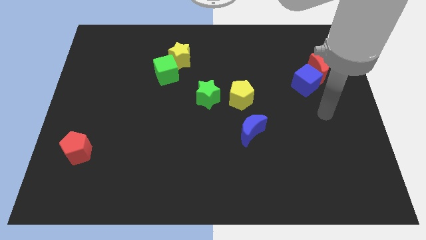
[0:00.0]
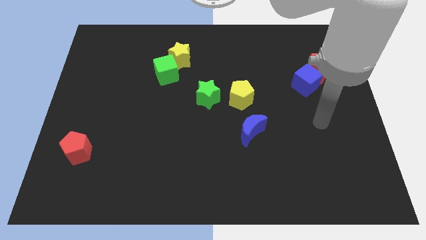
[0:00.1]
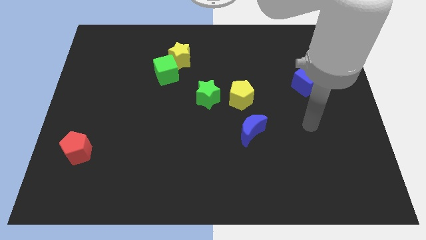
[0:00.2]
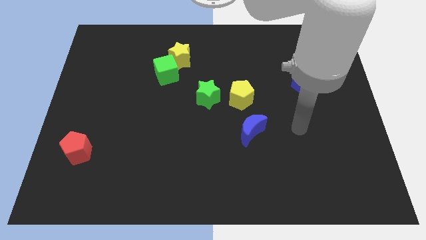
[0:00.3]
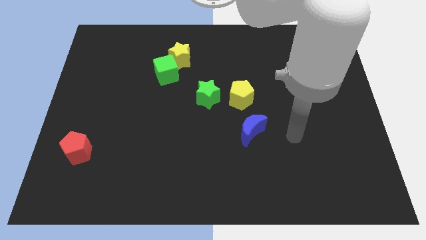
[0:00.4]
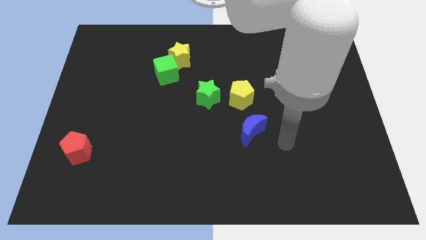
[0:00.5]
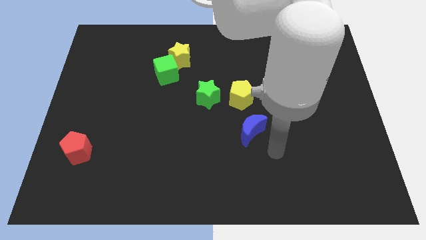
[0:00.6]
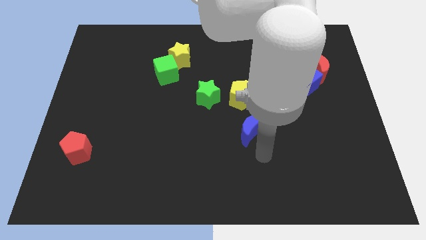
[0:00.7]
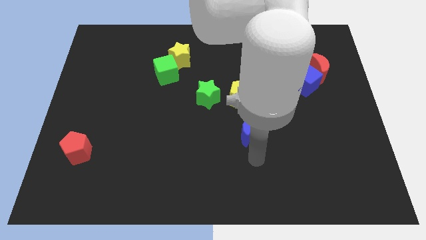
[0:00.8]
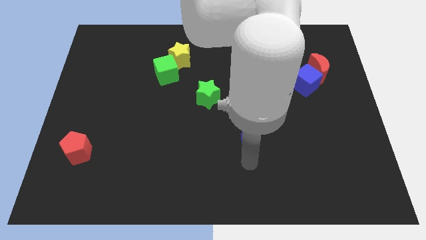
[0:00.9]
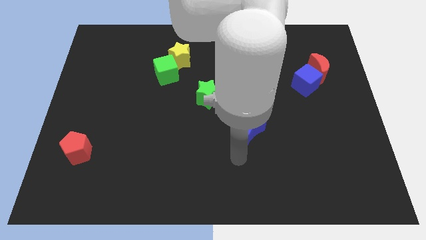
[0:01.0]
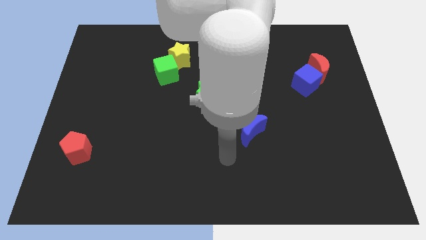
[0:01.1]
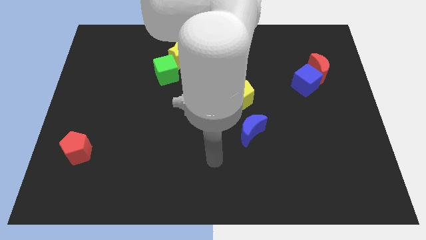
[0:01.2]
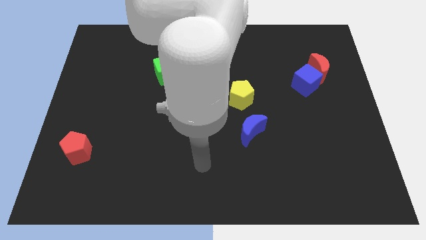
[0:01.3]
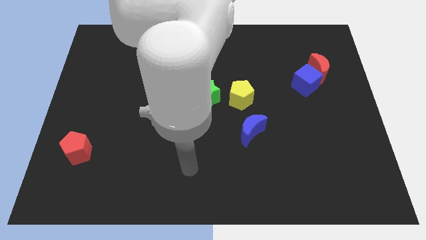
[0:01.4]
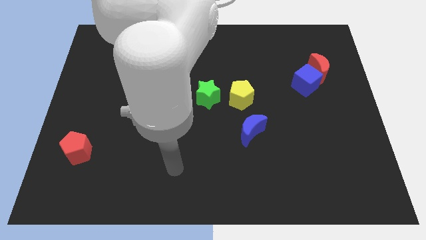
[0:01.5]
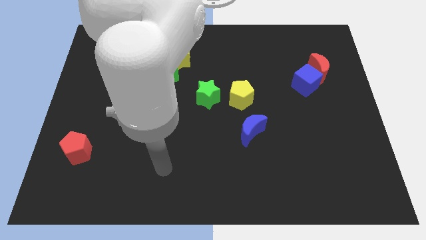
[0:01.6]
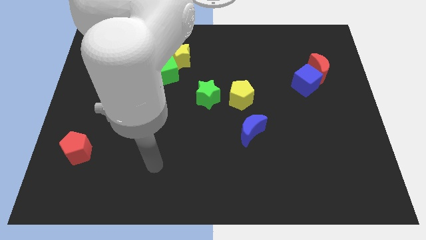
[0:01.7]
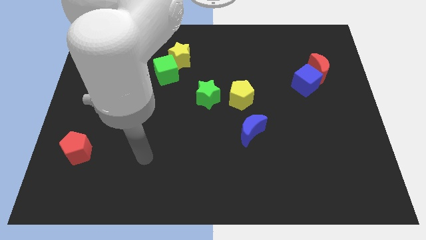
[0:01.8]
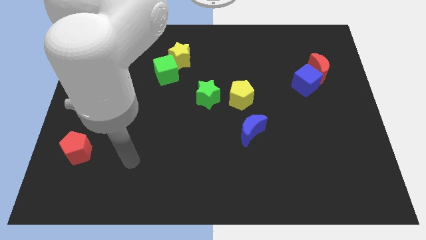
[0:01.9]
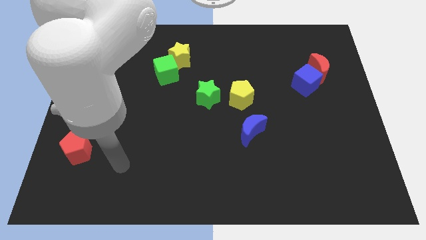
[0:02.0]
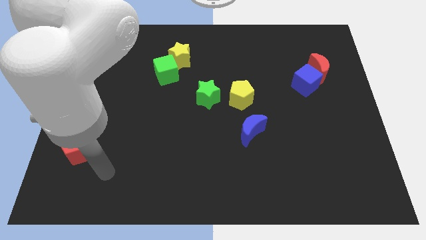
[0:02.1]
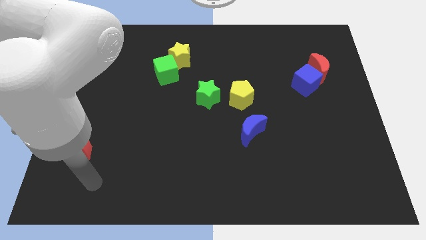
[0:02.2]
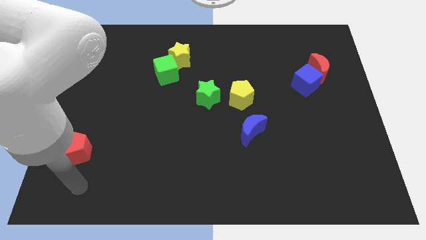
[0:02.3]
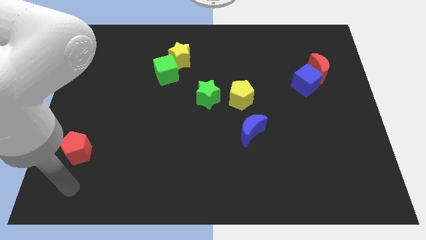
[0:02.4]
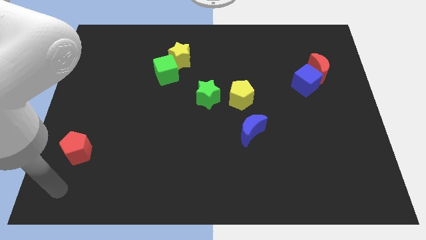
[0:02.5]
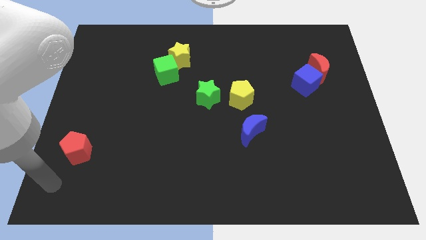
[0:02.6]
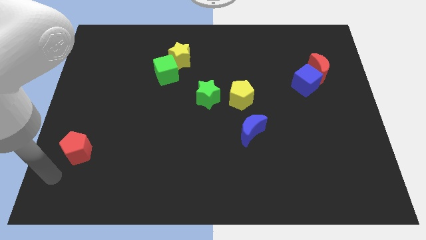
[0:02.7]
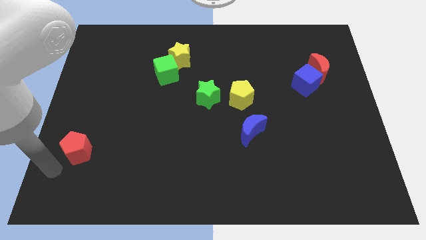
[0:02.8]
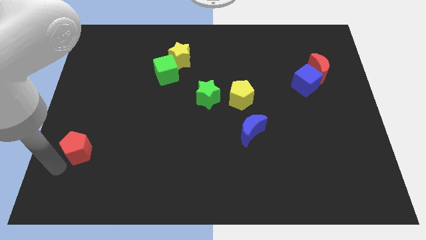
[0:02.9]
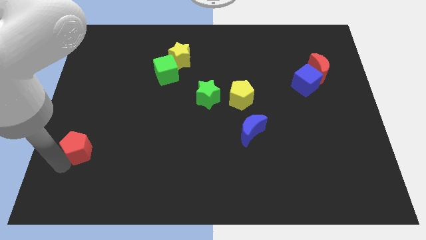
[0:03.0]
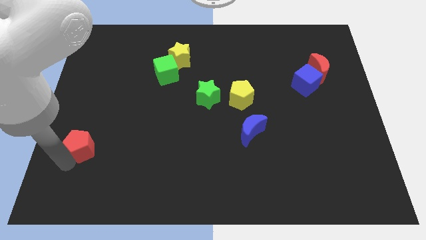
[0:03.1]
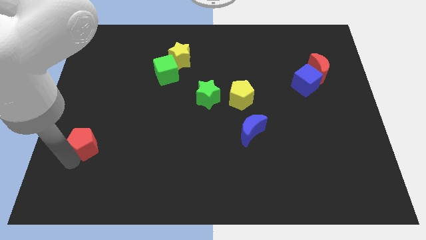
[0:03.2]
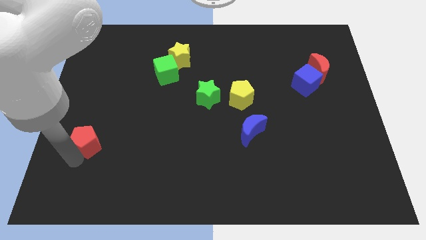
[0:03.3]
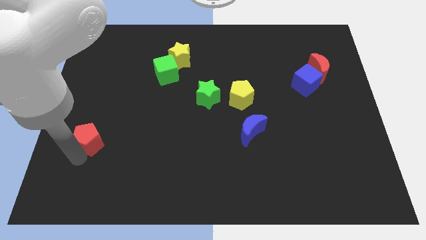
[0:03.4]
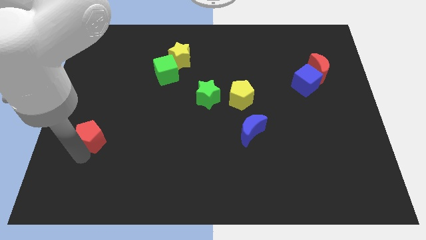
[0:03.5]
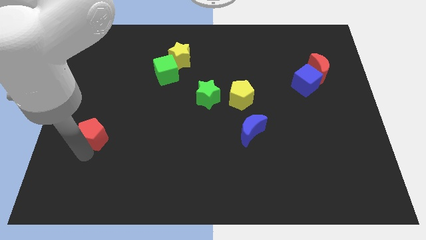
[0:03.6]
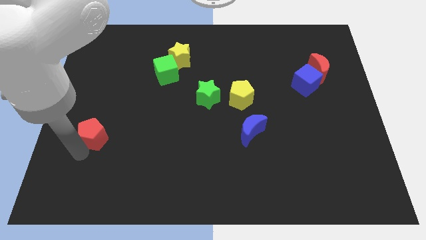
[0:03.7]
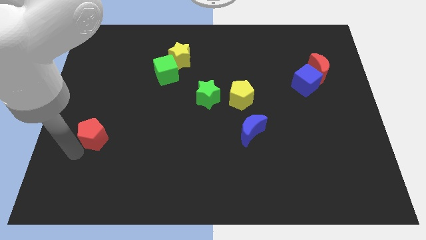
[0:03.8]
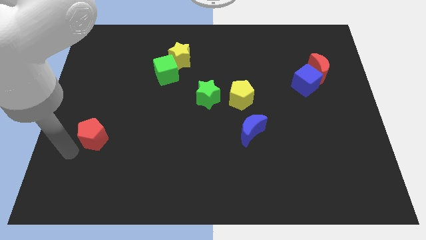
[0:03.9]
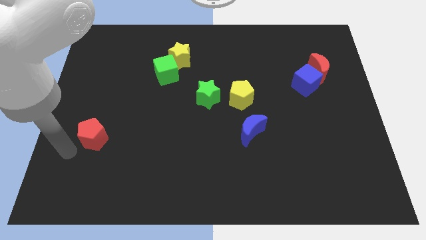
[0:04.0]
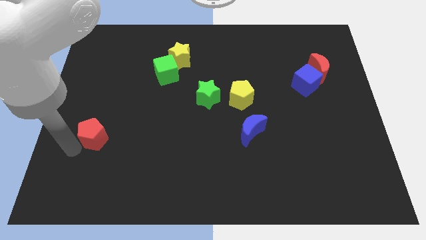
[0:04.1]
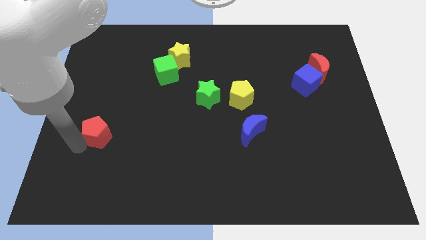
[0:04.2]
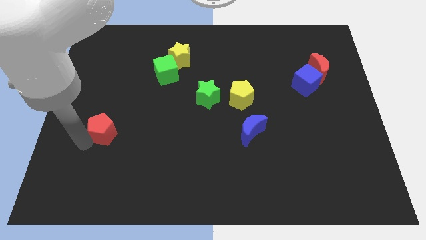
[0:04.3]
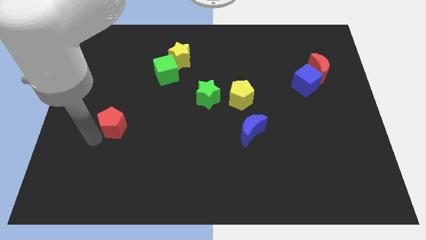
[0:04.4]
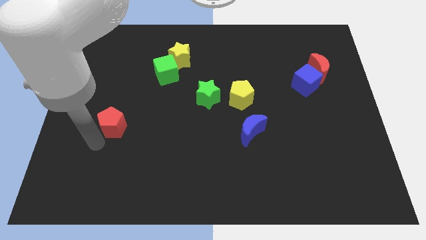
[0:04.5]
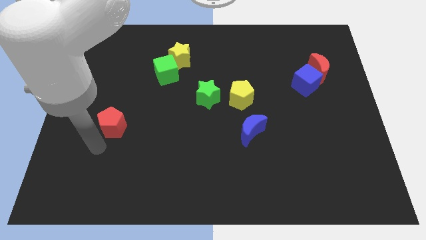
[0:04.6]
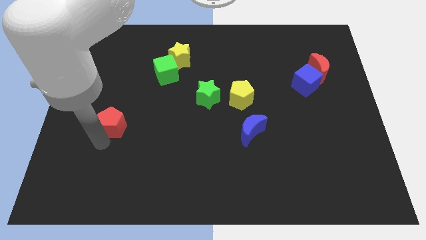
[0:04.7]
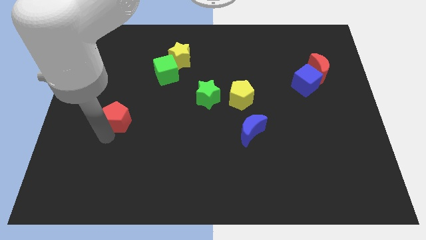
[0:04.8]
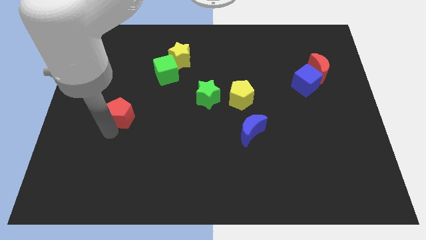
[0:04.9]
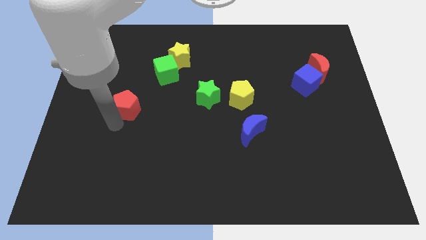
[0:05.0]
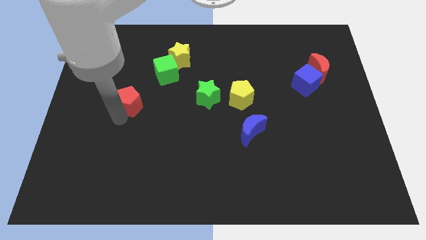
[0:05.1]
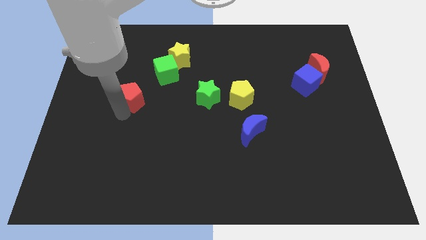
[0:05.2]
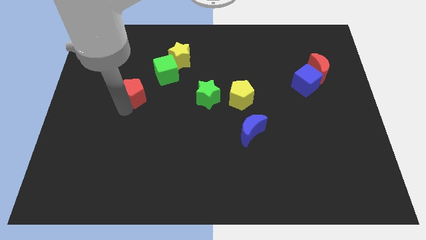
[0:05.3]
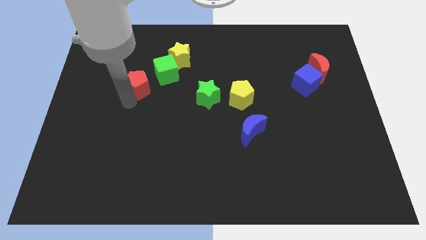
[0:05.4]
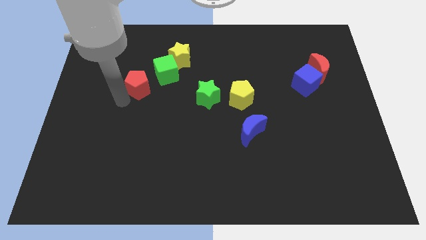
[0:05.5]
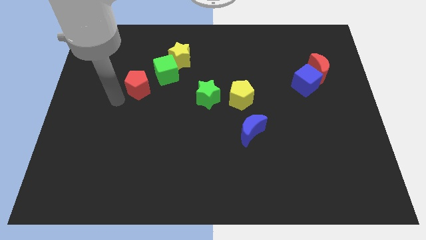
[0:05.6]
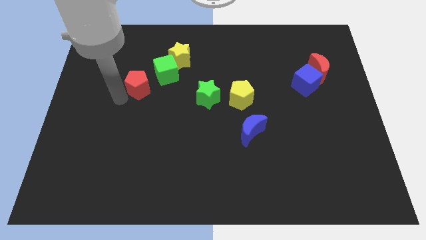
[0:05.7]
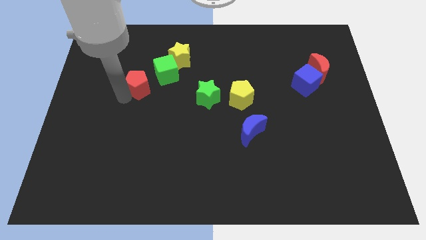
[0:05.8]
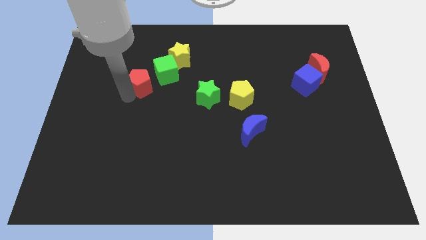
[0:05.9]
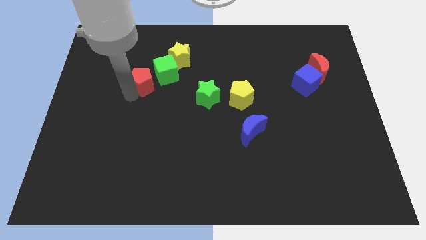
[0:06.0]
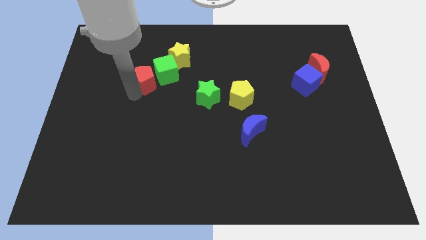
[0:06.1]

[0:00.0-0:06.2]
move the red pentagon close to the green cube

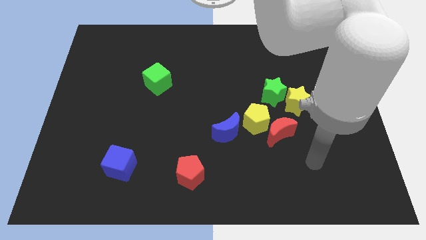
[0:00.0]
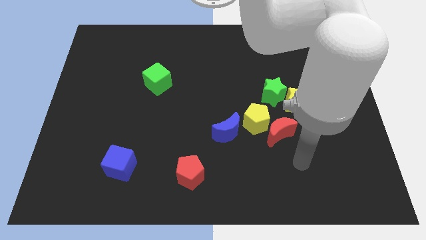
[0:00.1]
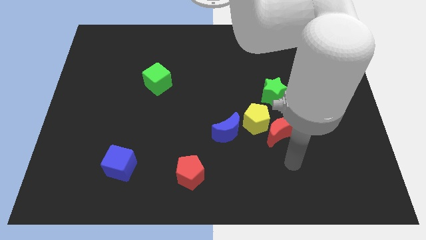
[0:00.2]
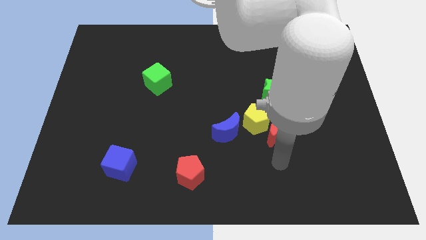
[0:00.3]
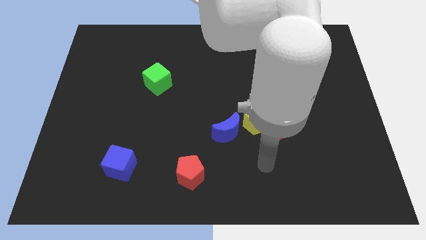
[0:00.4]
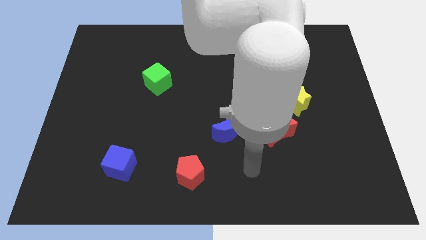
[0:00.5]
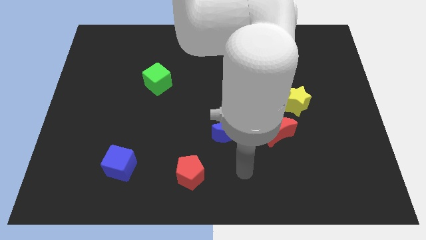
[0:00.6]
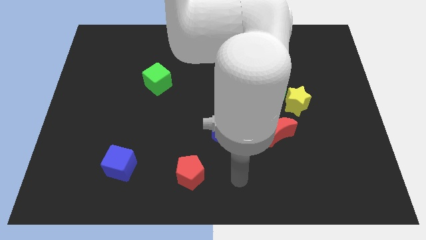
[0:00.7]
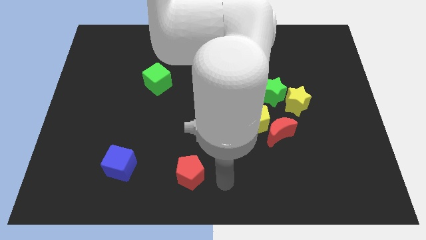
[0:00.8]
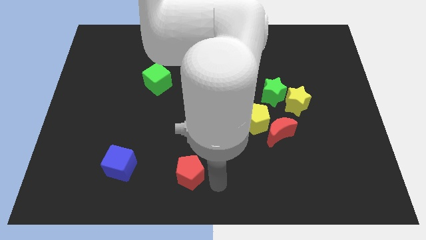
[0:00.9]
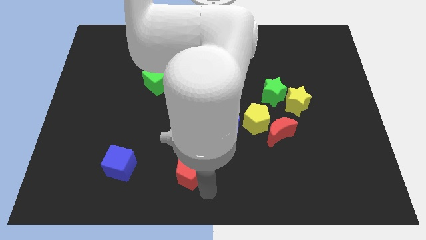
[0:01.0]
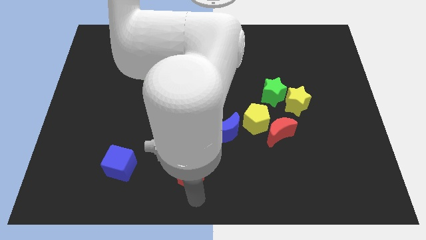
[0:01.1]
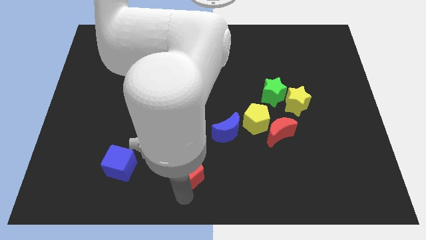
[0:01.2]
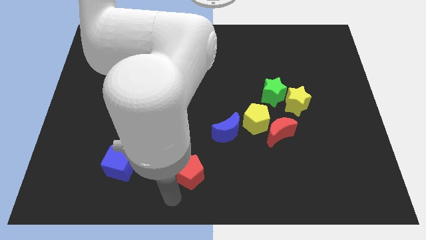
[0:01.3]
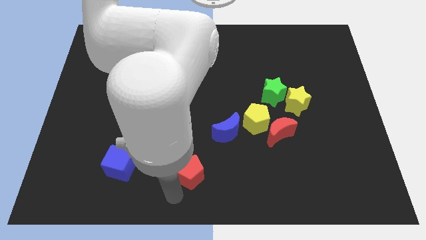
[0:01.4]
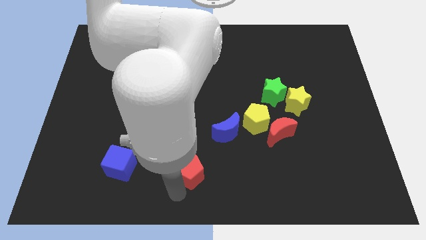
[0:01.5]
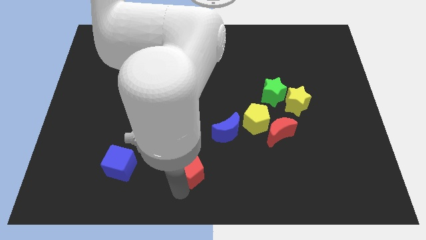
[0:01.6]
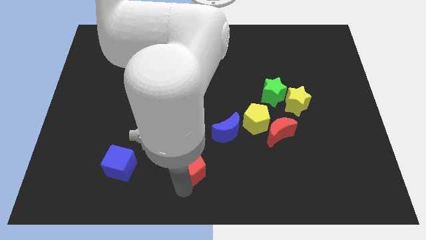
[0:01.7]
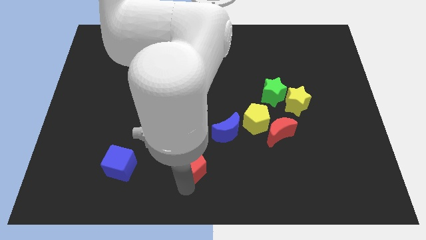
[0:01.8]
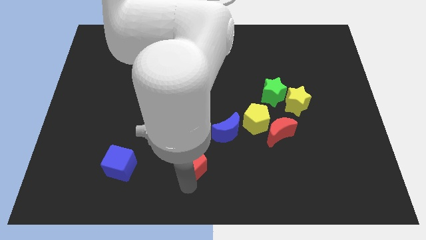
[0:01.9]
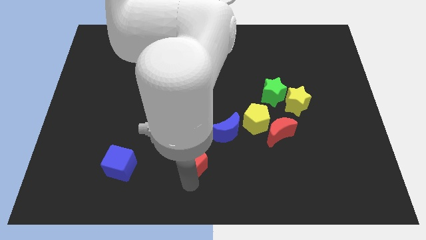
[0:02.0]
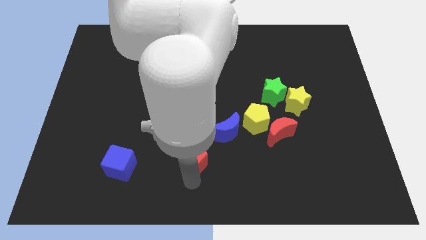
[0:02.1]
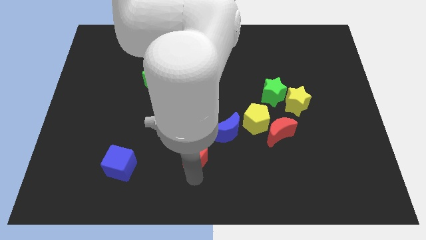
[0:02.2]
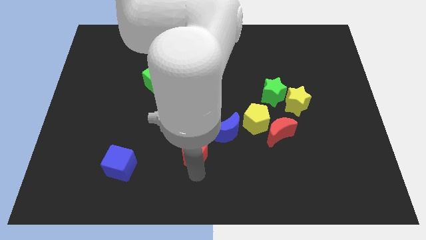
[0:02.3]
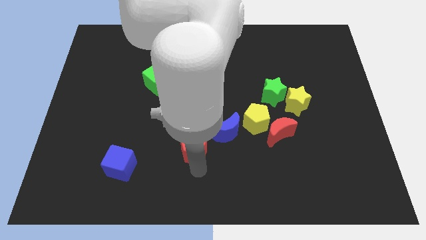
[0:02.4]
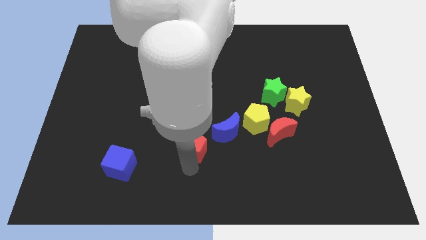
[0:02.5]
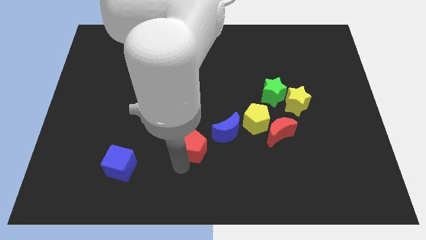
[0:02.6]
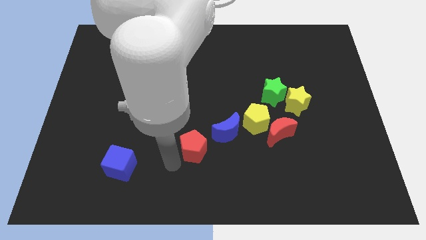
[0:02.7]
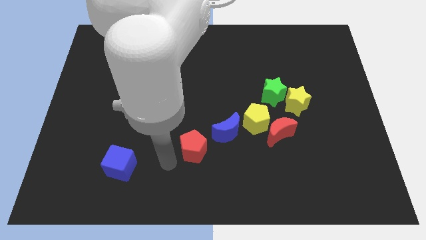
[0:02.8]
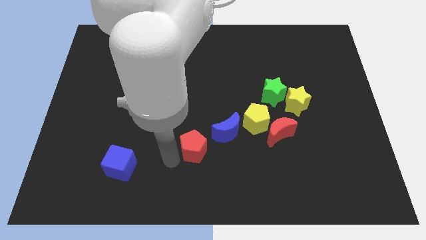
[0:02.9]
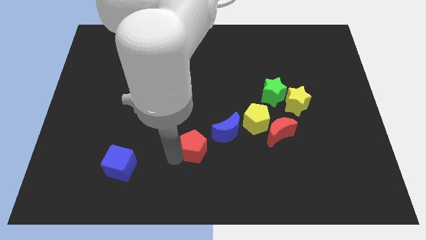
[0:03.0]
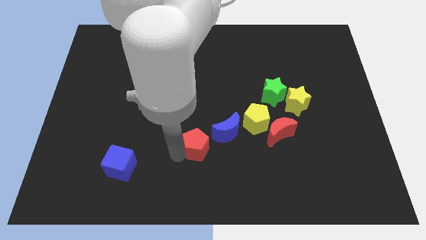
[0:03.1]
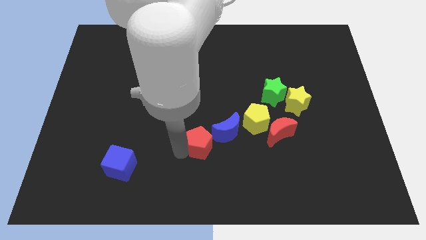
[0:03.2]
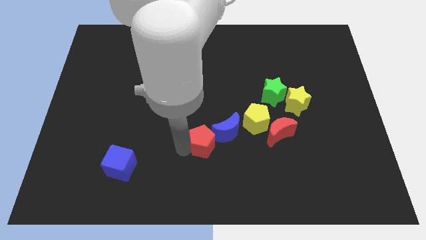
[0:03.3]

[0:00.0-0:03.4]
push the red pentagon next to the blue moon
